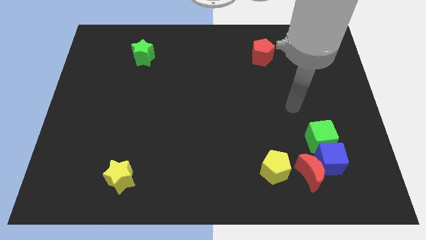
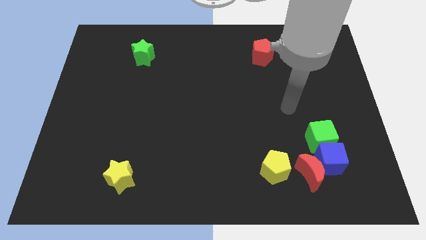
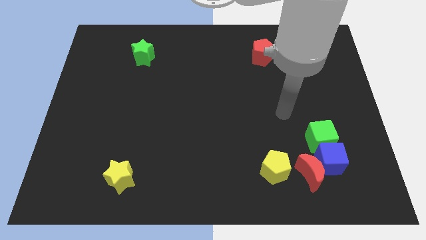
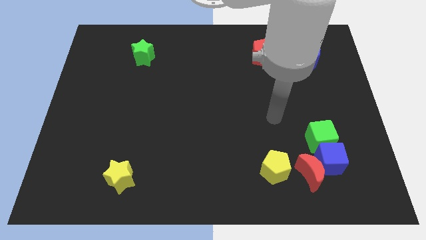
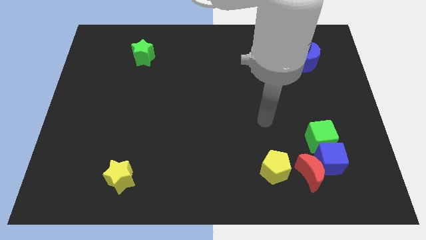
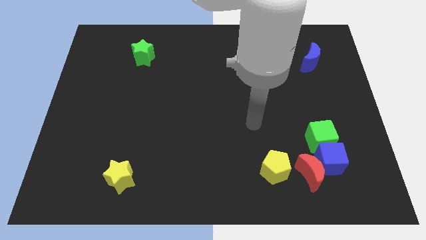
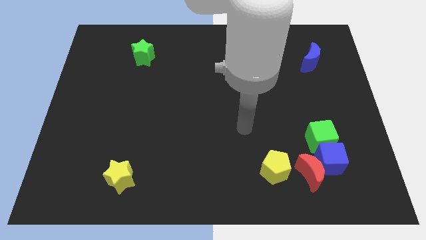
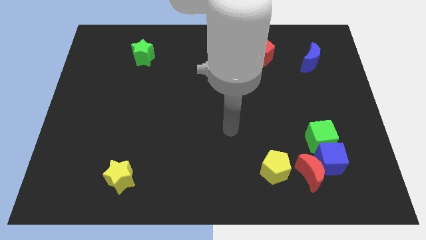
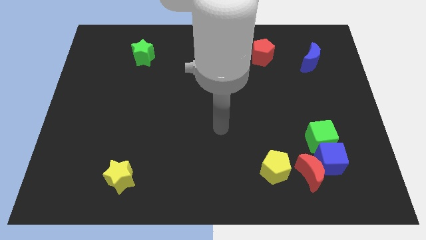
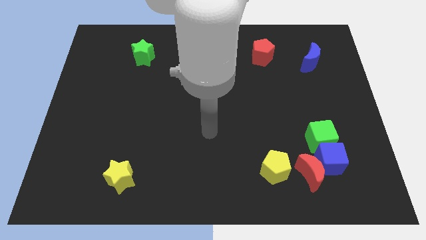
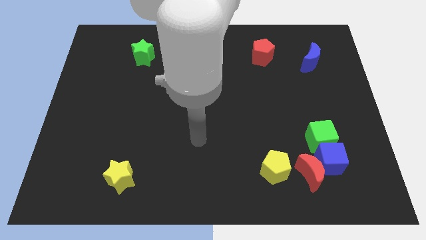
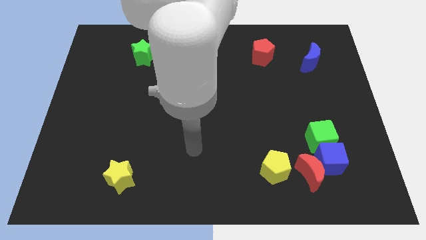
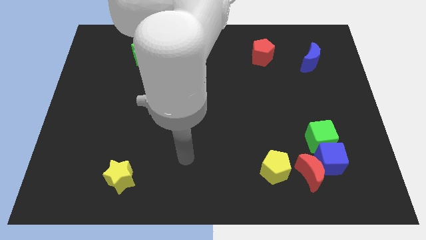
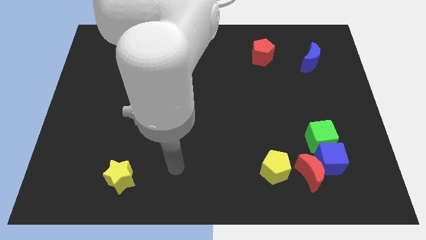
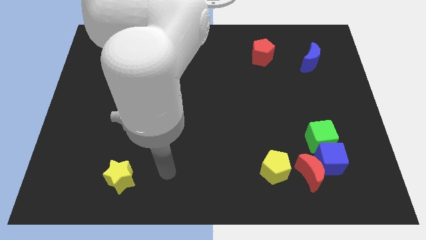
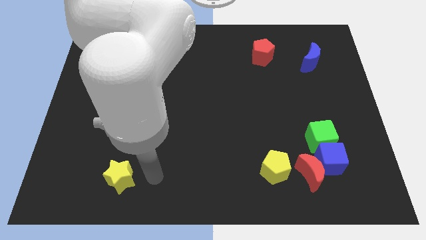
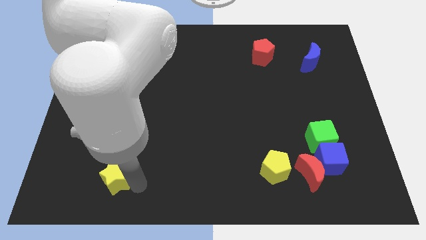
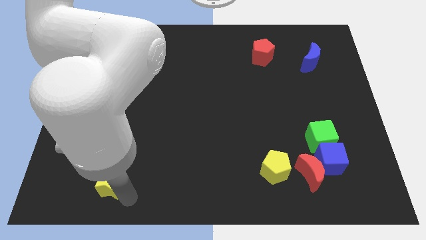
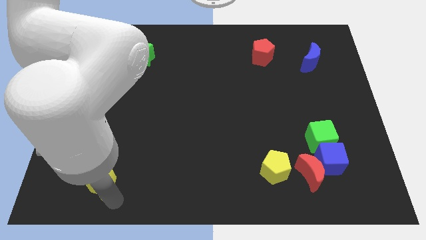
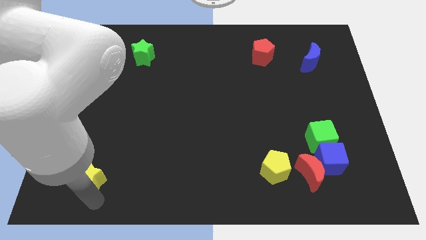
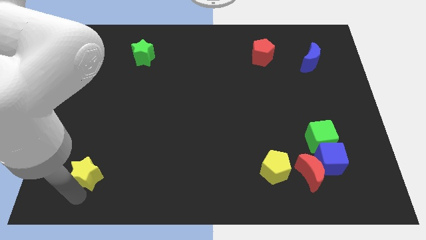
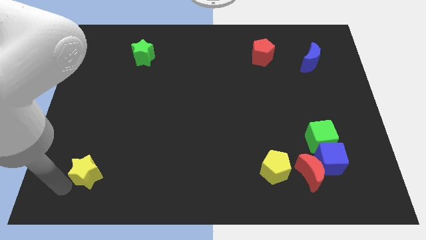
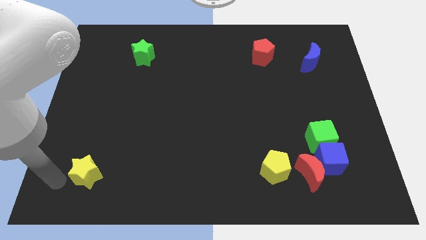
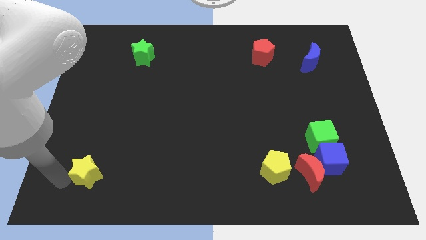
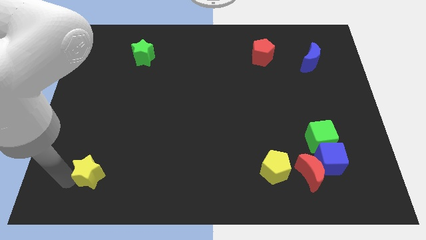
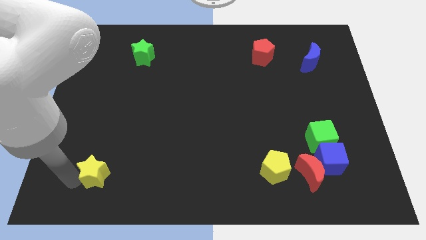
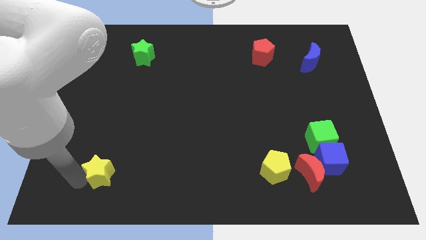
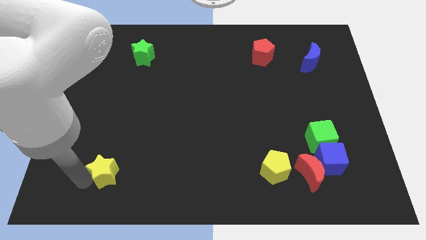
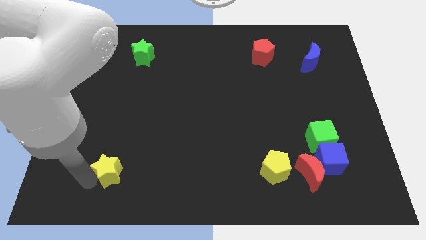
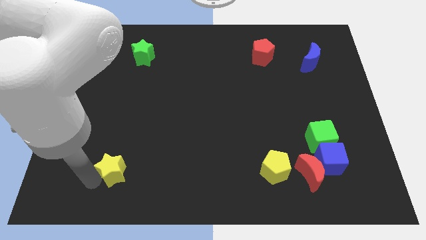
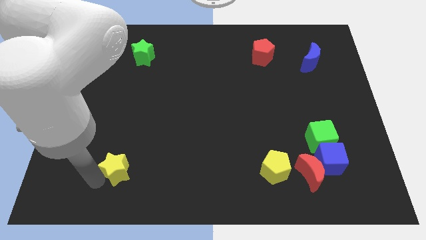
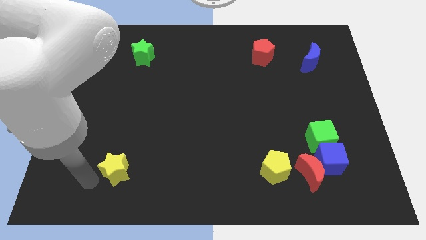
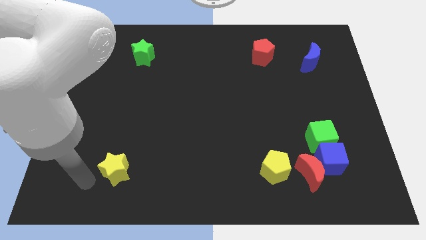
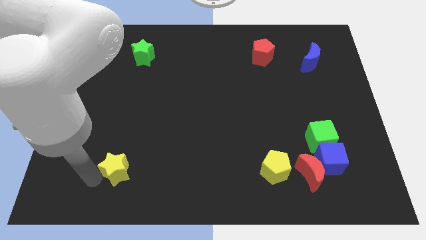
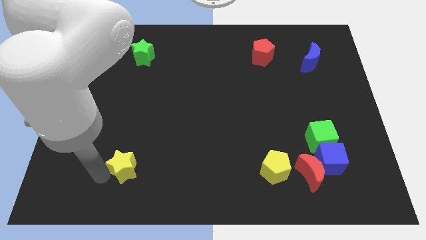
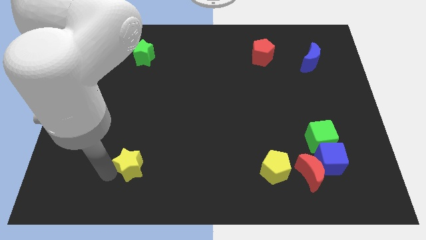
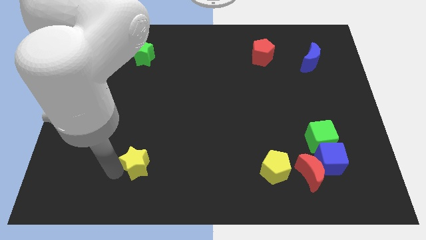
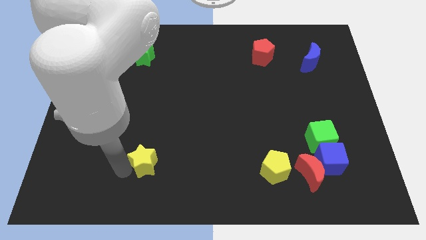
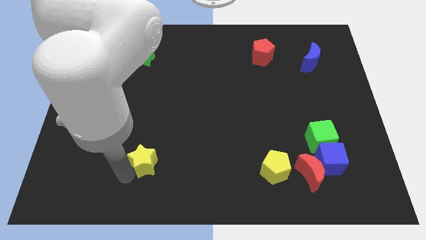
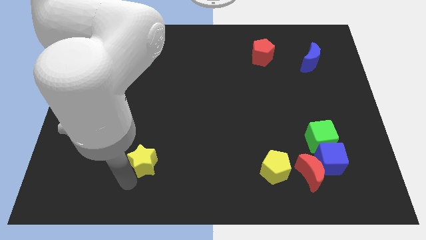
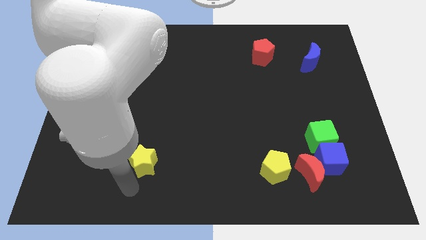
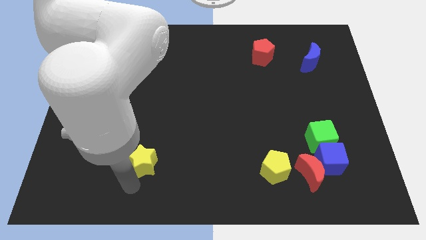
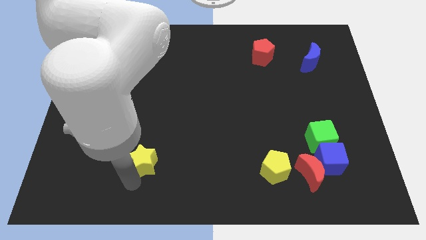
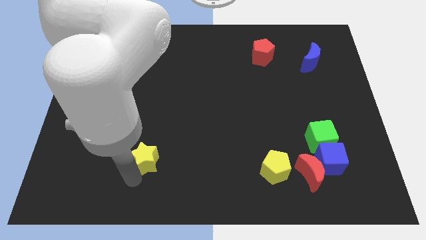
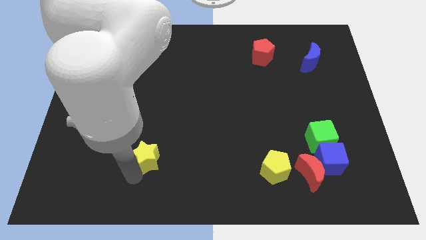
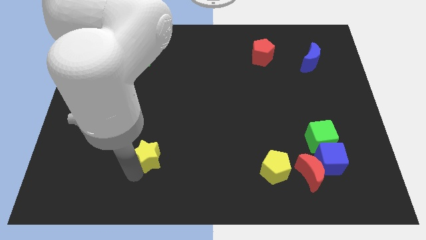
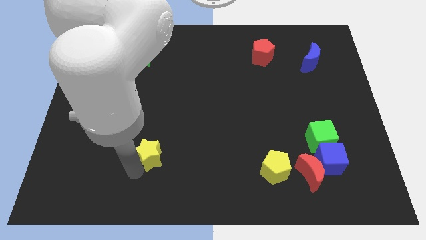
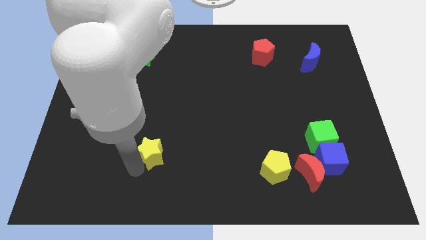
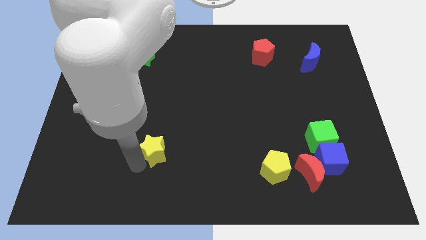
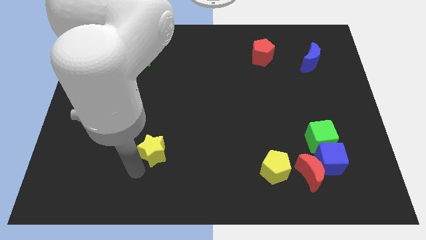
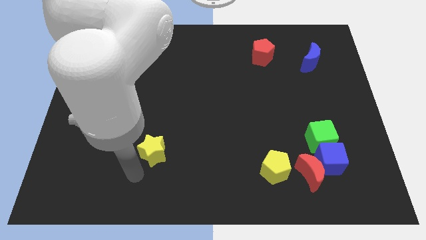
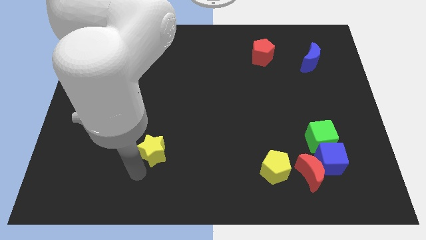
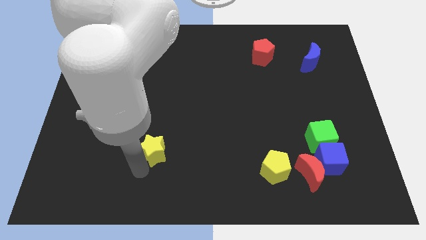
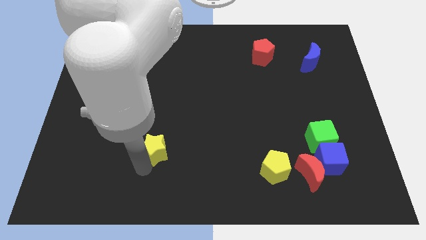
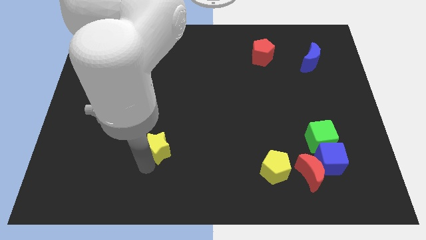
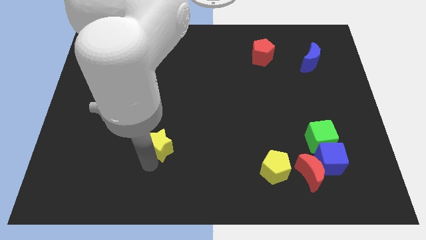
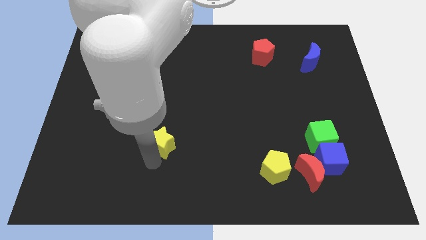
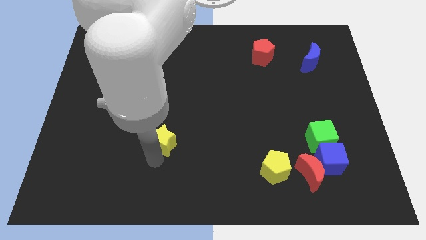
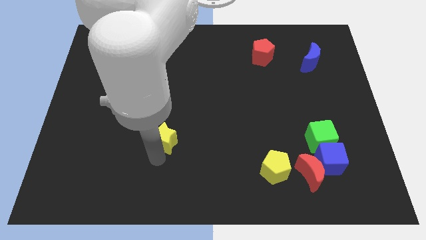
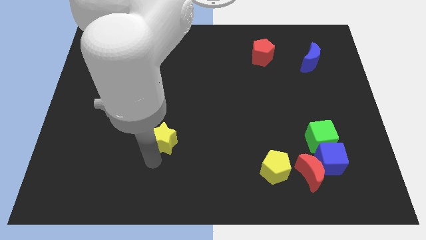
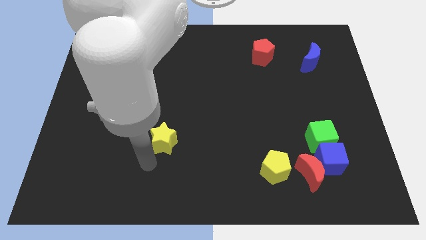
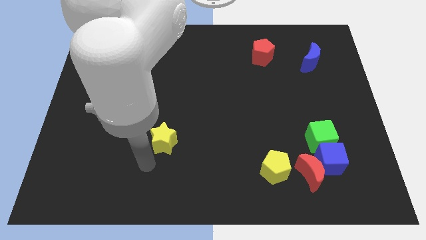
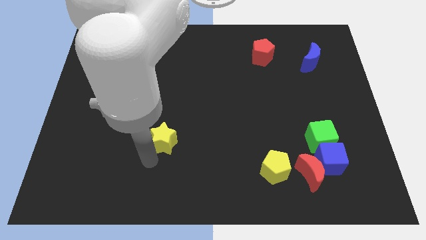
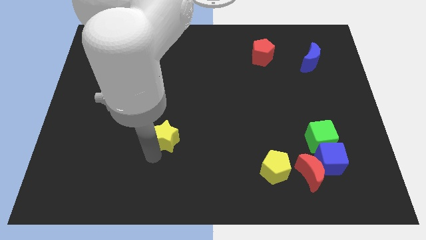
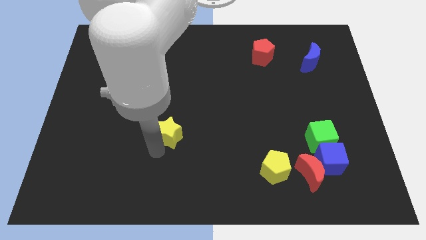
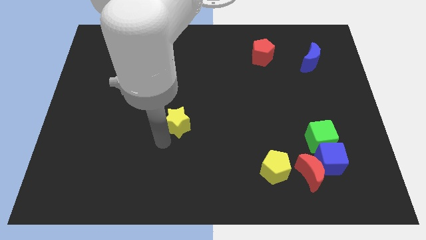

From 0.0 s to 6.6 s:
put the yellow star to the center
